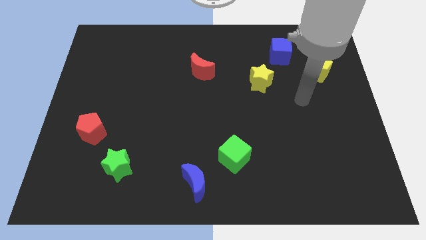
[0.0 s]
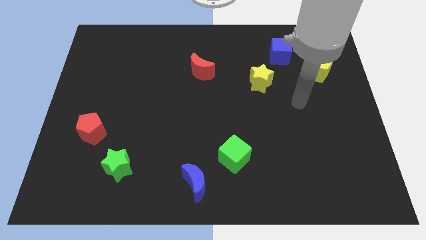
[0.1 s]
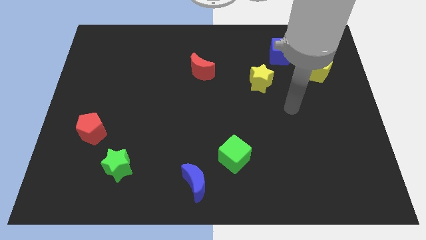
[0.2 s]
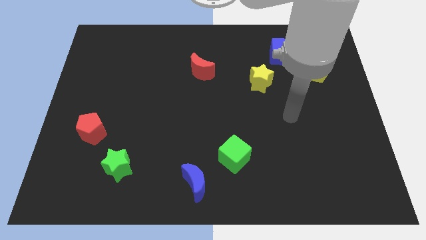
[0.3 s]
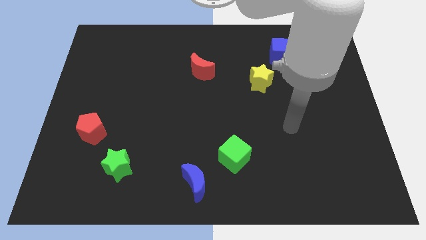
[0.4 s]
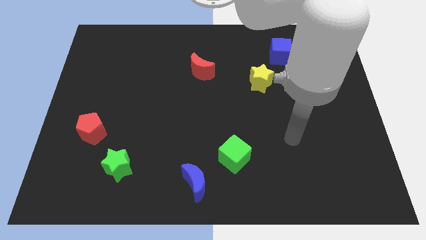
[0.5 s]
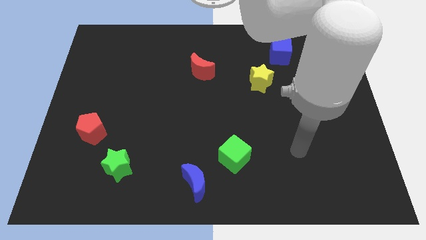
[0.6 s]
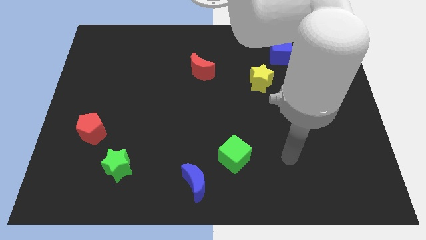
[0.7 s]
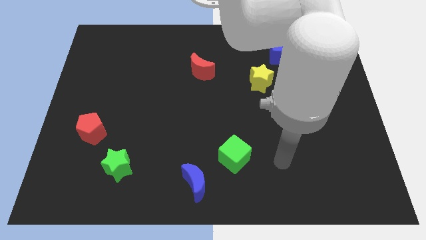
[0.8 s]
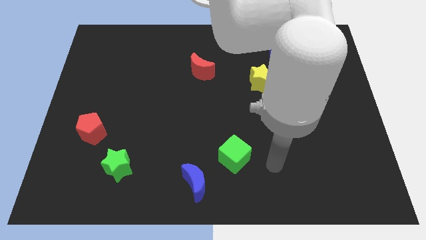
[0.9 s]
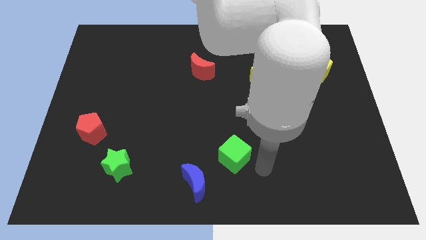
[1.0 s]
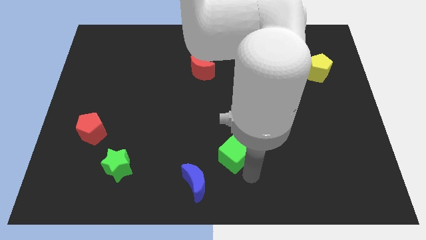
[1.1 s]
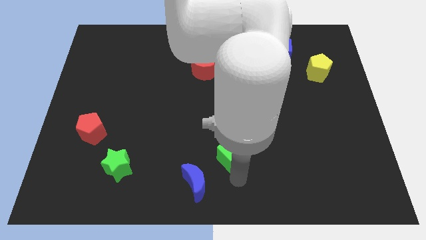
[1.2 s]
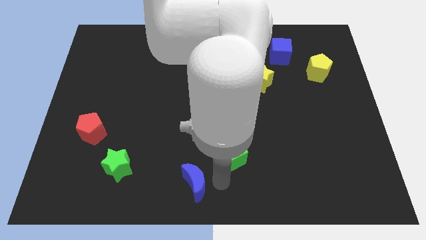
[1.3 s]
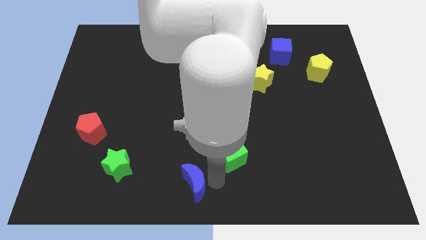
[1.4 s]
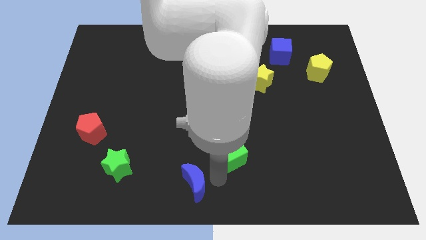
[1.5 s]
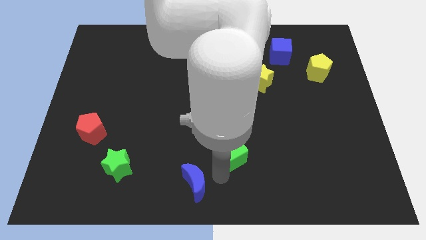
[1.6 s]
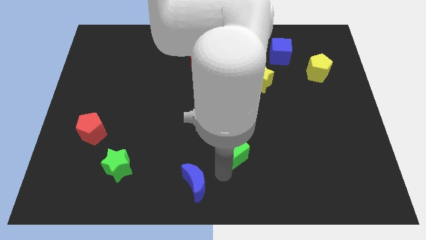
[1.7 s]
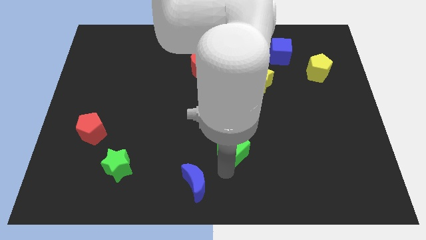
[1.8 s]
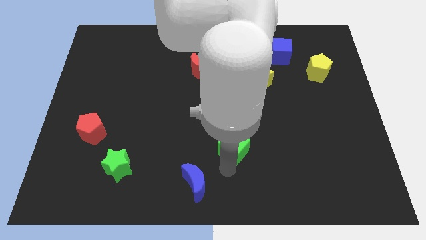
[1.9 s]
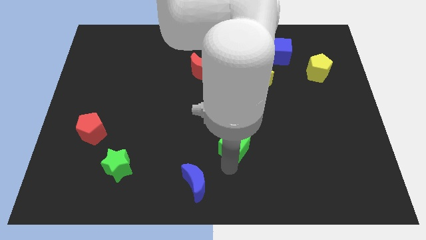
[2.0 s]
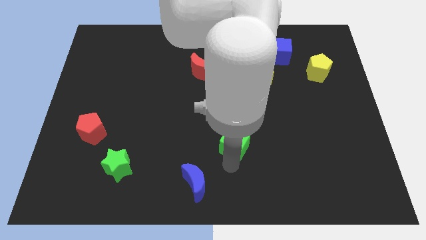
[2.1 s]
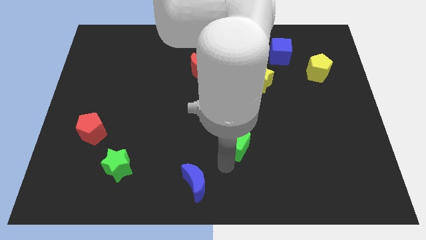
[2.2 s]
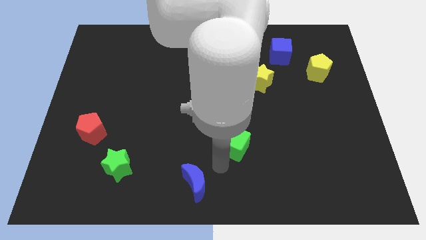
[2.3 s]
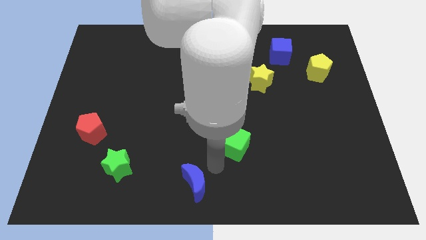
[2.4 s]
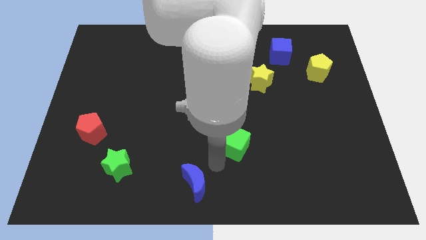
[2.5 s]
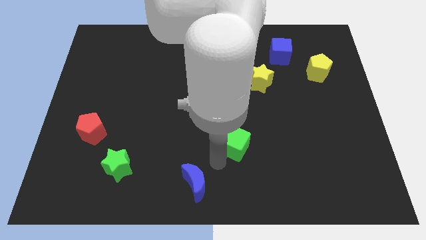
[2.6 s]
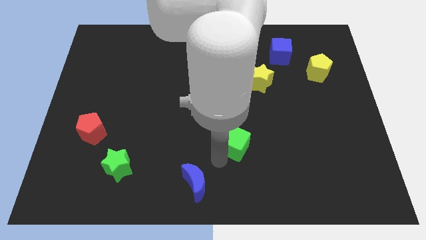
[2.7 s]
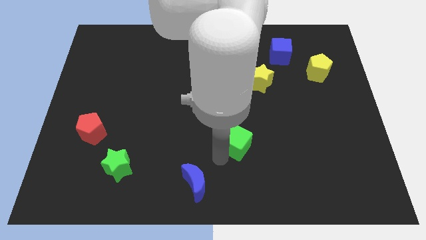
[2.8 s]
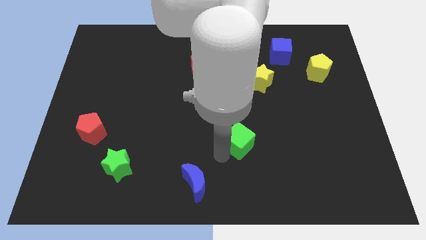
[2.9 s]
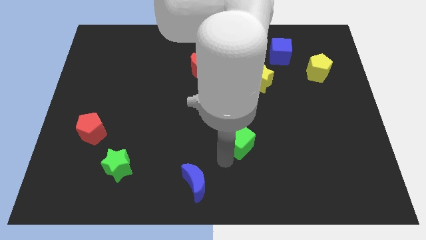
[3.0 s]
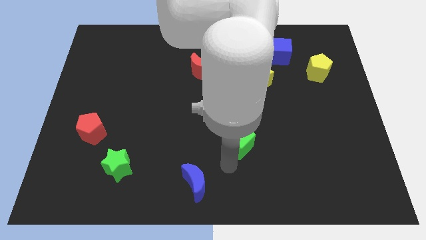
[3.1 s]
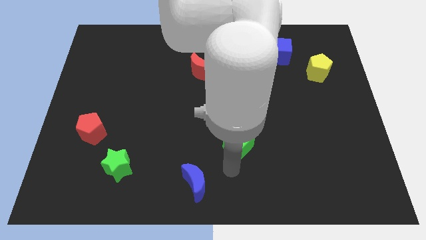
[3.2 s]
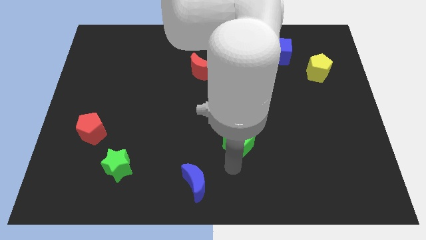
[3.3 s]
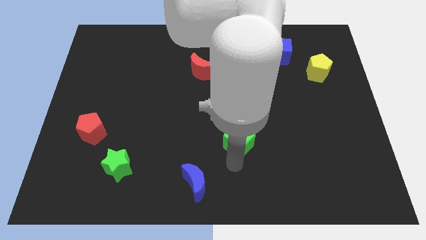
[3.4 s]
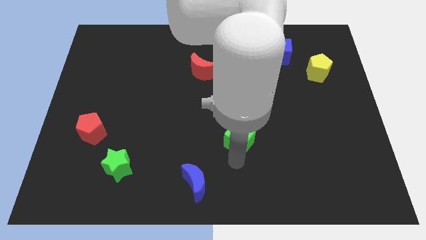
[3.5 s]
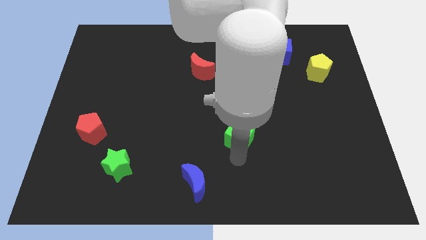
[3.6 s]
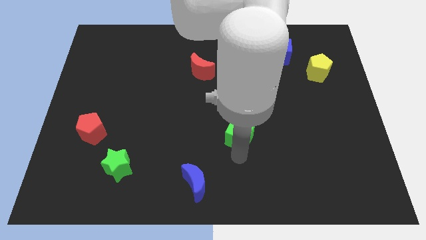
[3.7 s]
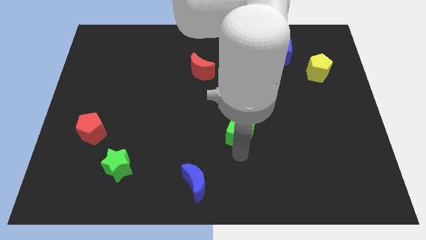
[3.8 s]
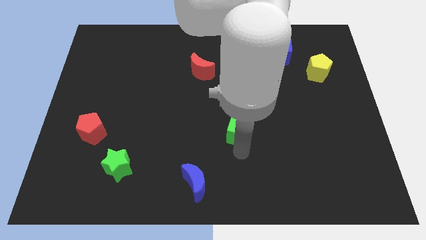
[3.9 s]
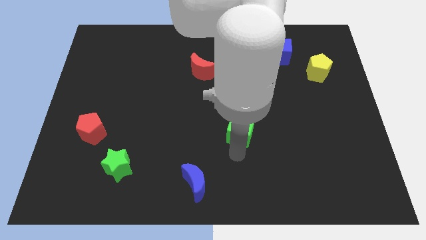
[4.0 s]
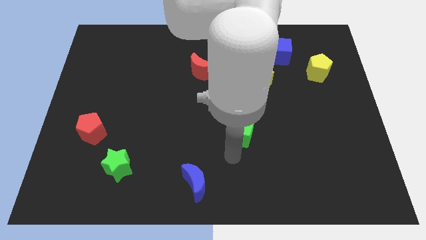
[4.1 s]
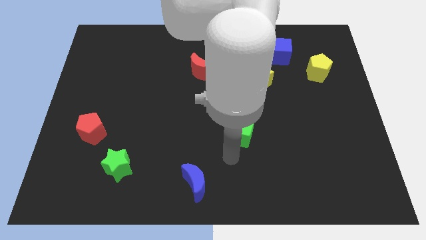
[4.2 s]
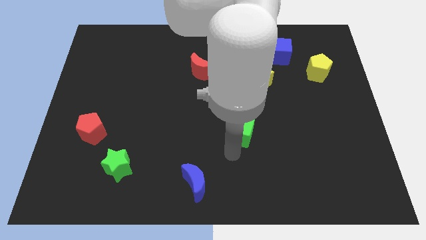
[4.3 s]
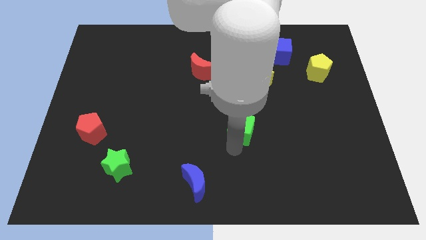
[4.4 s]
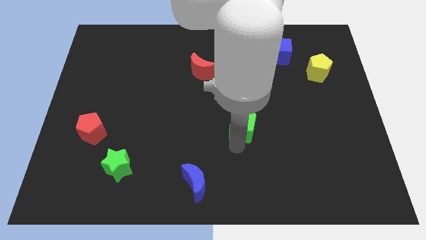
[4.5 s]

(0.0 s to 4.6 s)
slide the green cube up slightly

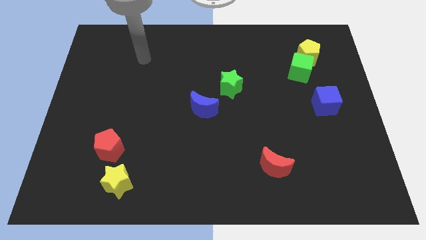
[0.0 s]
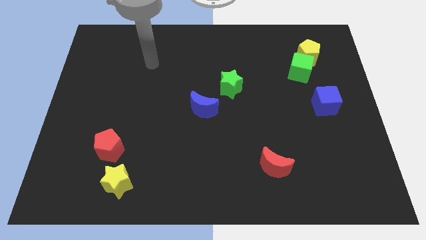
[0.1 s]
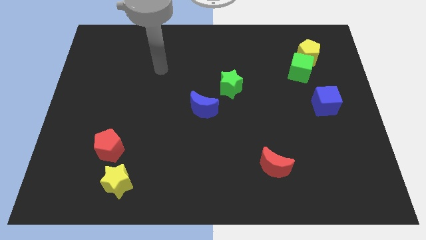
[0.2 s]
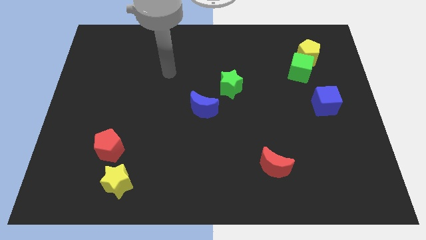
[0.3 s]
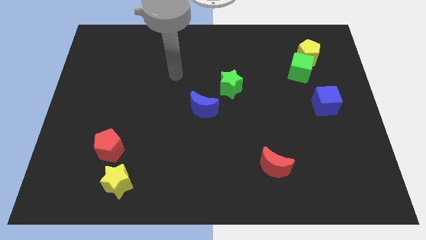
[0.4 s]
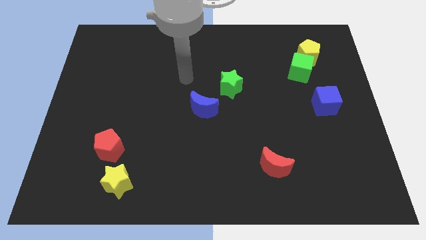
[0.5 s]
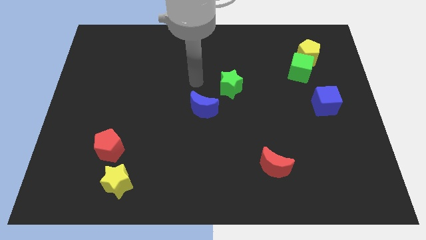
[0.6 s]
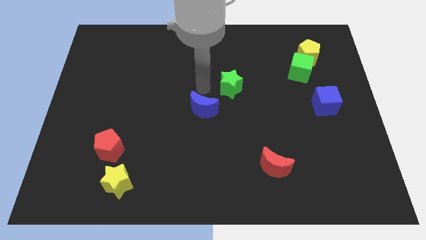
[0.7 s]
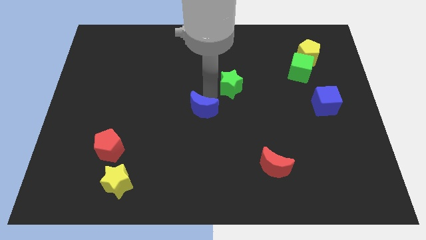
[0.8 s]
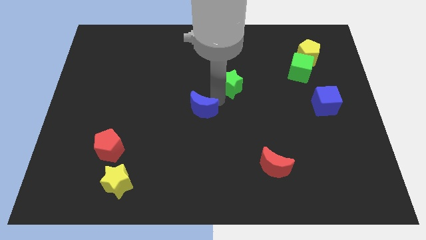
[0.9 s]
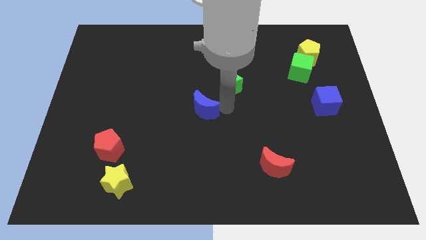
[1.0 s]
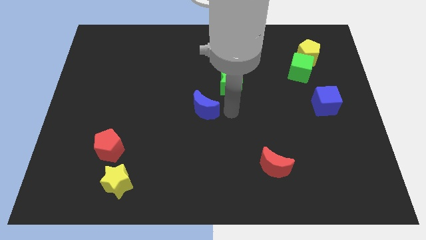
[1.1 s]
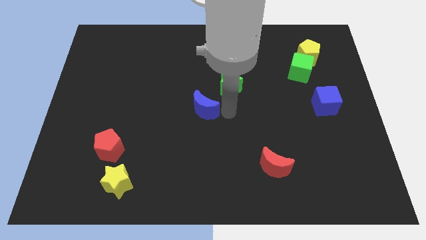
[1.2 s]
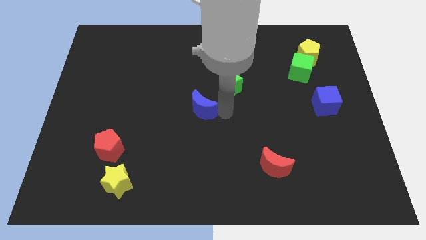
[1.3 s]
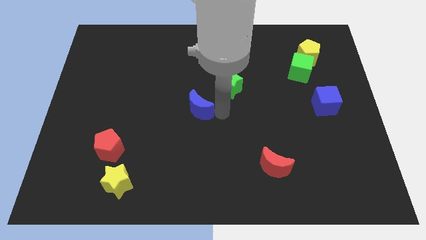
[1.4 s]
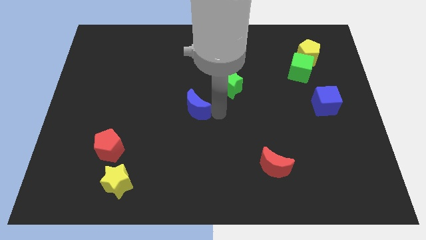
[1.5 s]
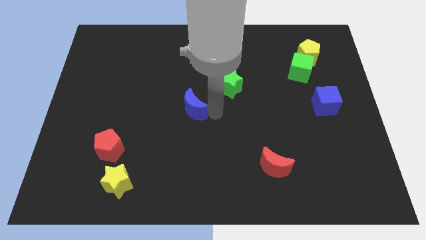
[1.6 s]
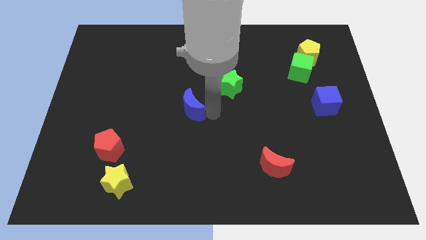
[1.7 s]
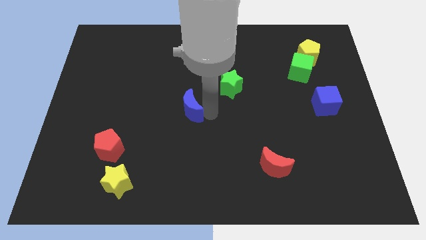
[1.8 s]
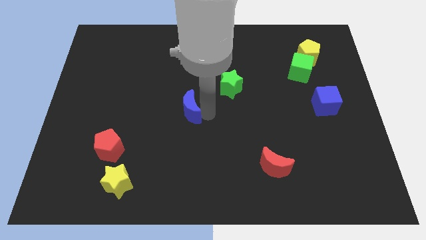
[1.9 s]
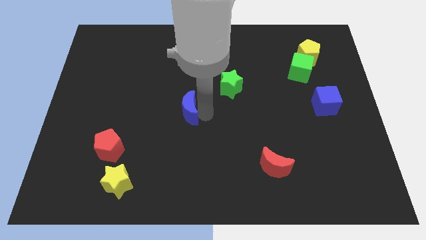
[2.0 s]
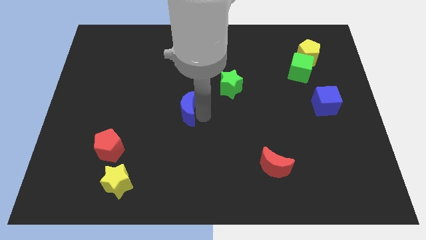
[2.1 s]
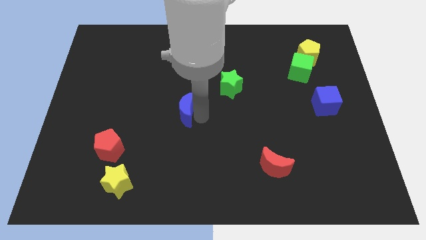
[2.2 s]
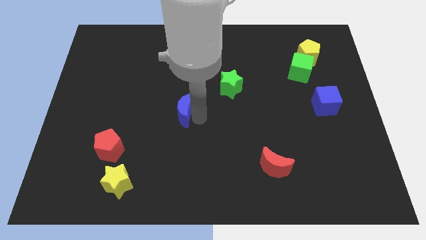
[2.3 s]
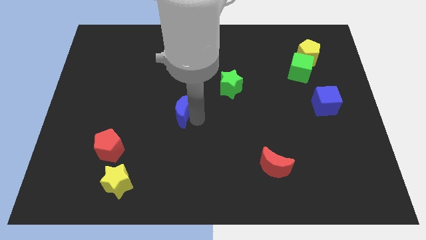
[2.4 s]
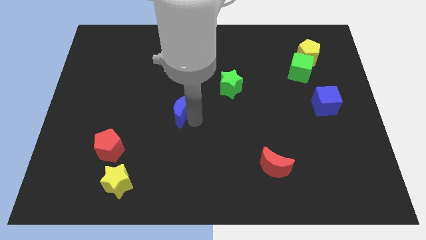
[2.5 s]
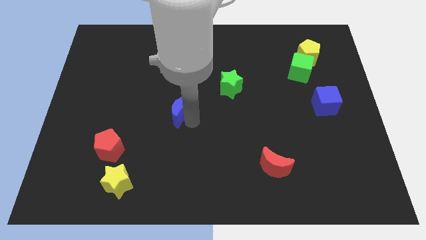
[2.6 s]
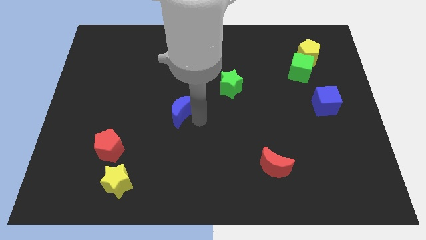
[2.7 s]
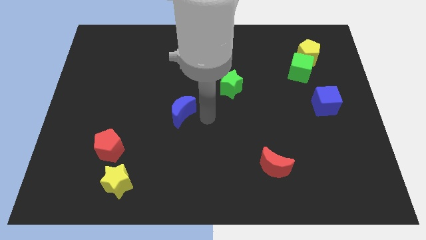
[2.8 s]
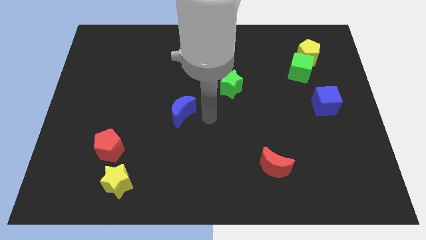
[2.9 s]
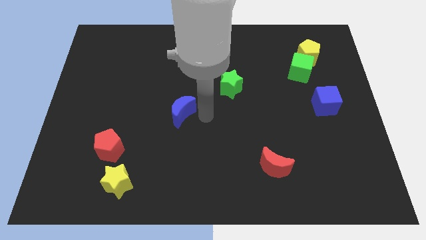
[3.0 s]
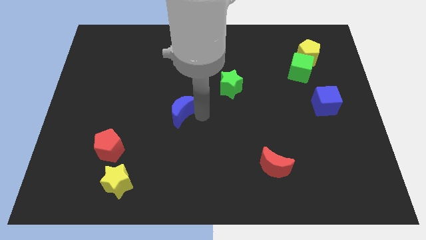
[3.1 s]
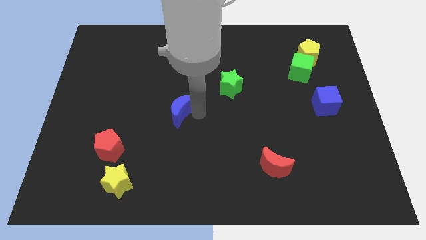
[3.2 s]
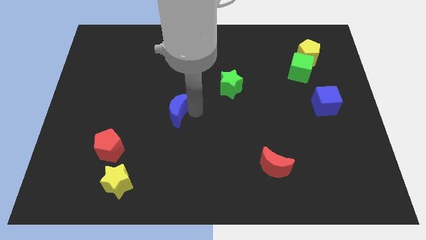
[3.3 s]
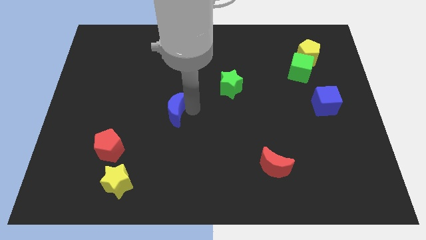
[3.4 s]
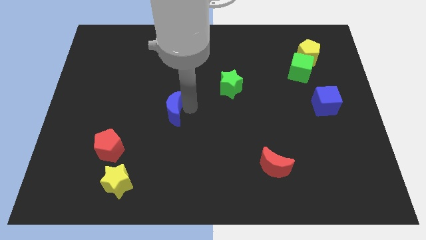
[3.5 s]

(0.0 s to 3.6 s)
push the blue moon a little bit to the left
